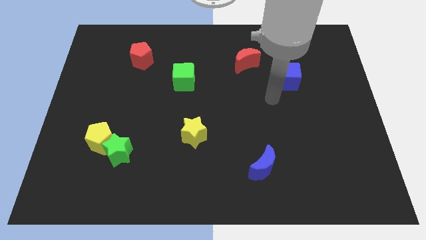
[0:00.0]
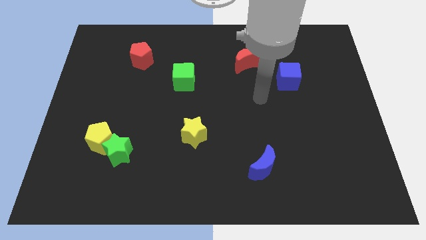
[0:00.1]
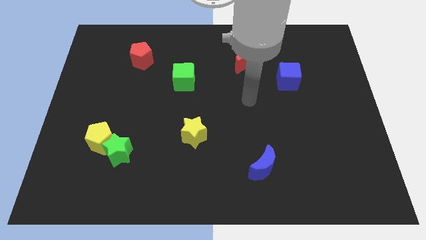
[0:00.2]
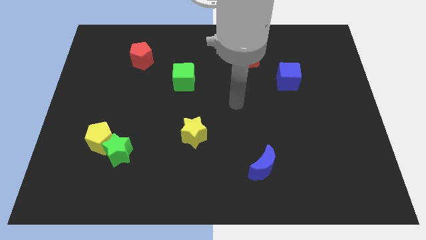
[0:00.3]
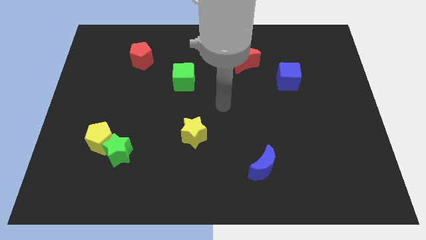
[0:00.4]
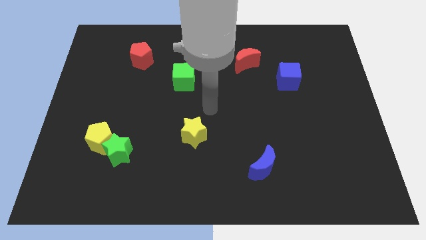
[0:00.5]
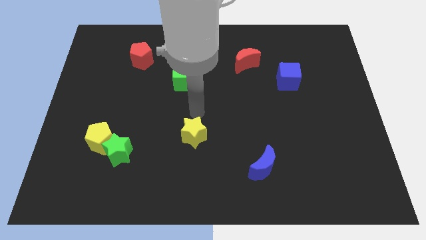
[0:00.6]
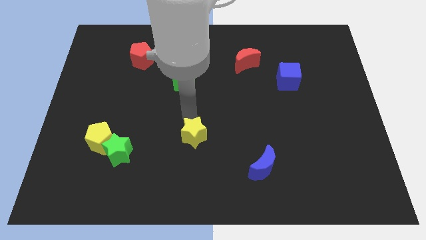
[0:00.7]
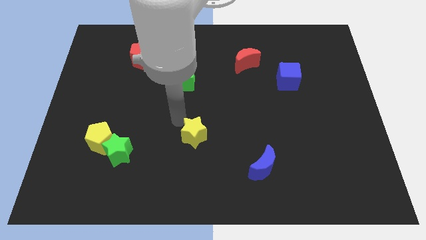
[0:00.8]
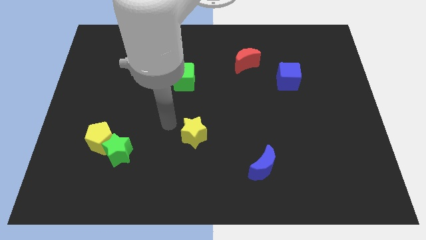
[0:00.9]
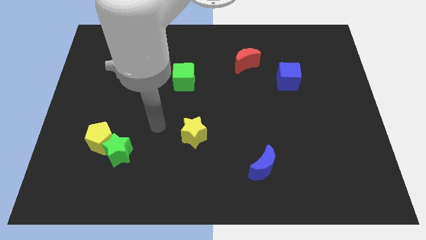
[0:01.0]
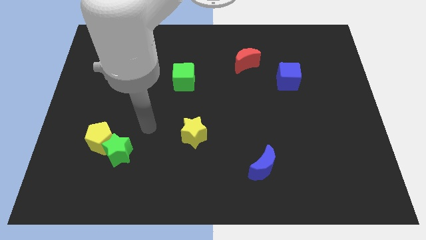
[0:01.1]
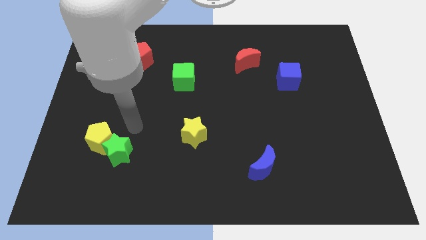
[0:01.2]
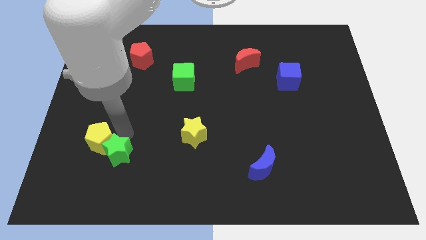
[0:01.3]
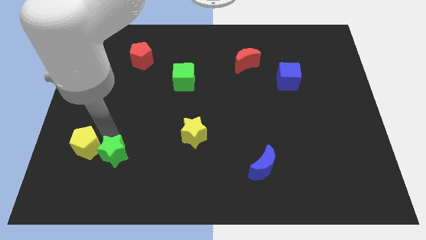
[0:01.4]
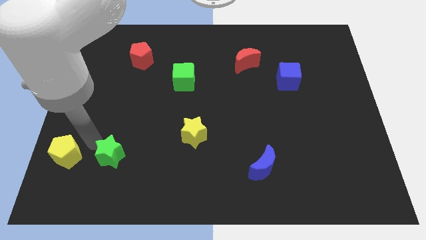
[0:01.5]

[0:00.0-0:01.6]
pull the green star apart from the yellow pentagon

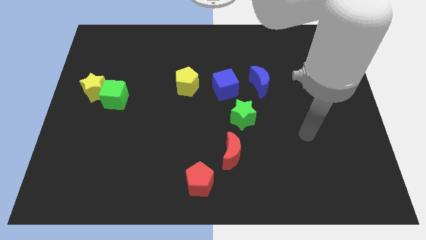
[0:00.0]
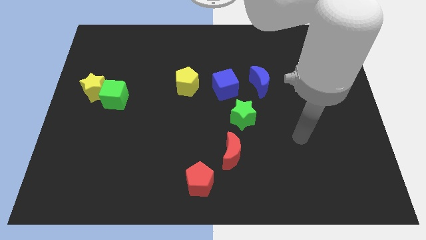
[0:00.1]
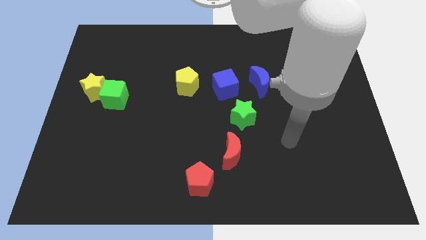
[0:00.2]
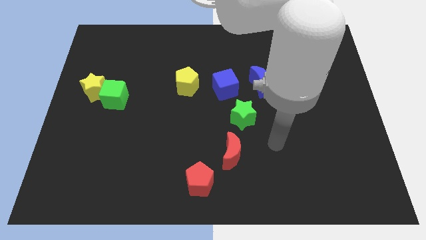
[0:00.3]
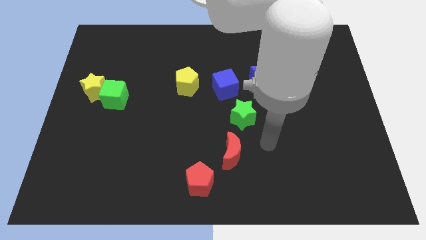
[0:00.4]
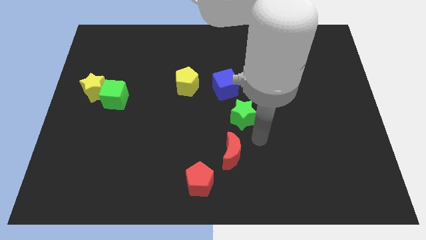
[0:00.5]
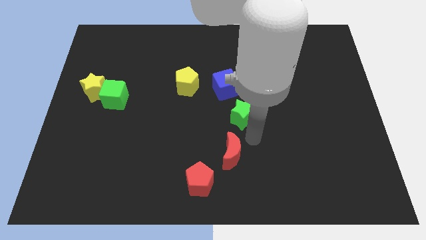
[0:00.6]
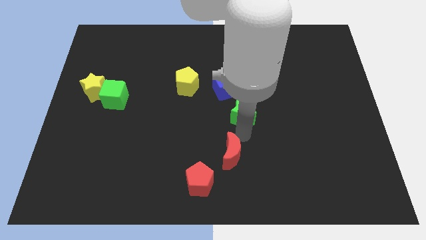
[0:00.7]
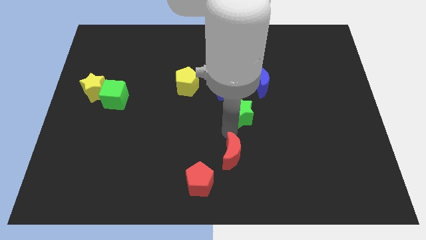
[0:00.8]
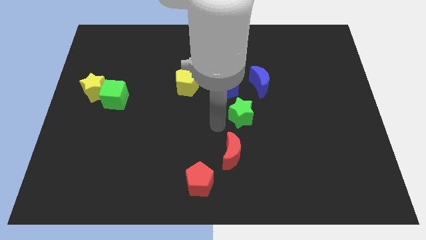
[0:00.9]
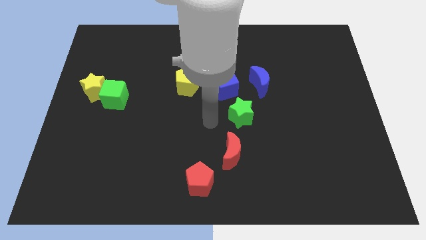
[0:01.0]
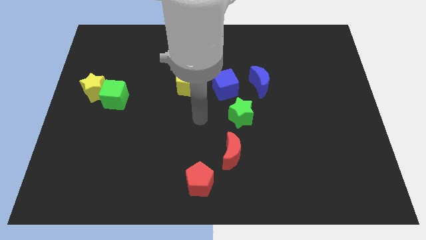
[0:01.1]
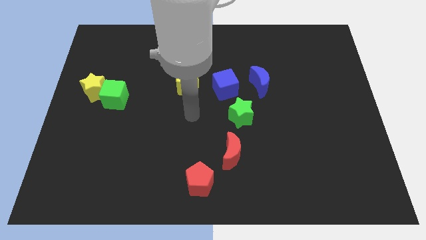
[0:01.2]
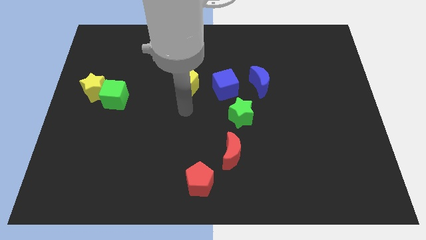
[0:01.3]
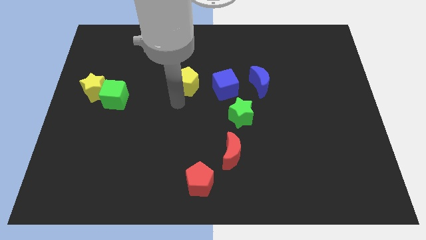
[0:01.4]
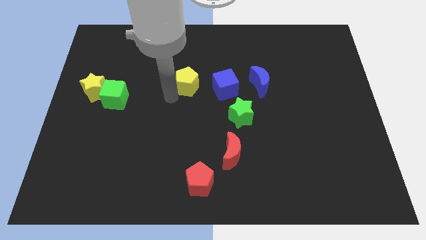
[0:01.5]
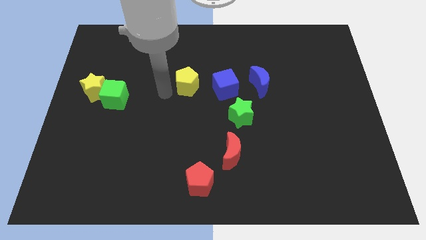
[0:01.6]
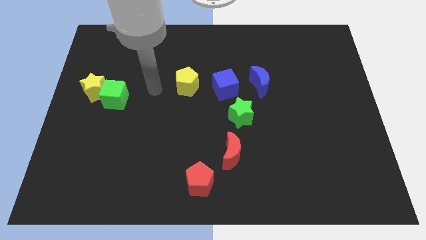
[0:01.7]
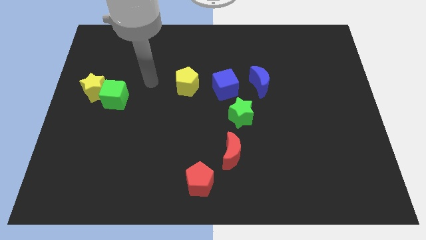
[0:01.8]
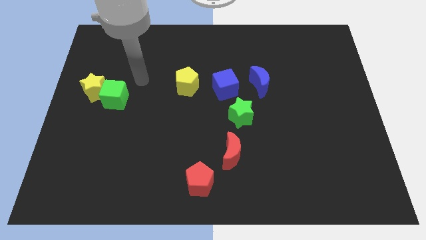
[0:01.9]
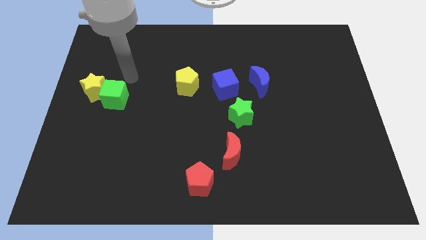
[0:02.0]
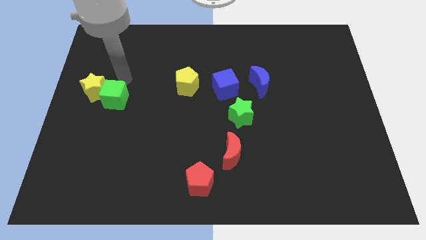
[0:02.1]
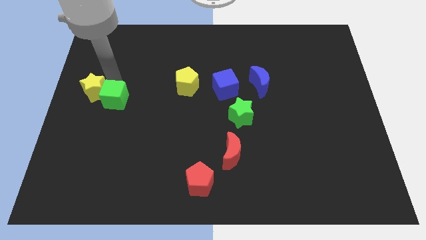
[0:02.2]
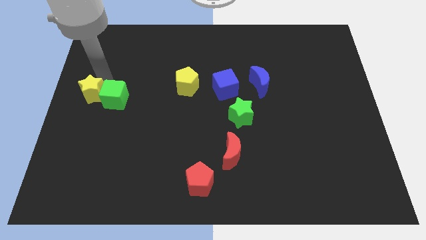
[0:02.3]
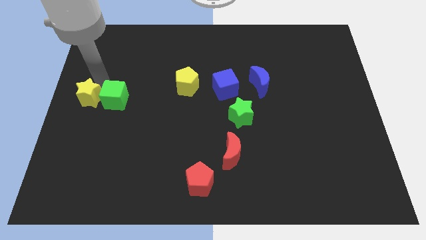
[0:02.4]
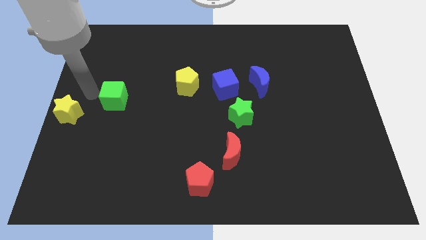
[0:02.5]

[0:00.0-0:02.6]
move the green cube away from the yellow star

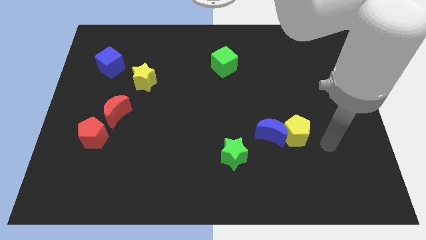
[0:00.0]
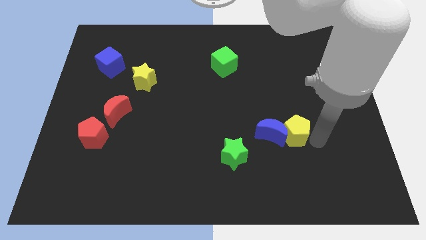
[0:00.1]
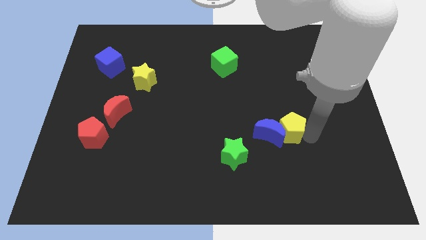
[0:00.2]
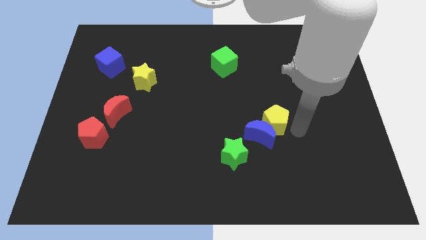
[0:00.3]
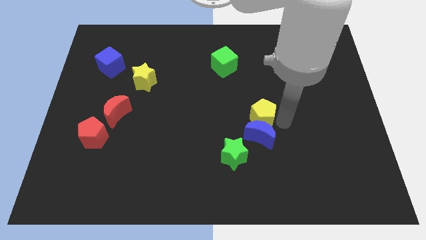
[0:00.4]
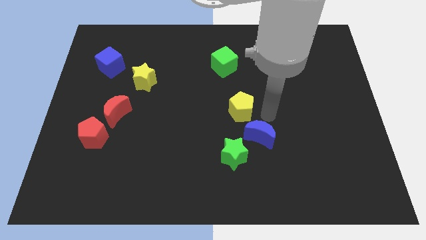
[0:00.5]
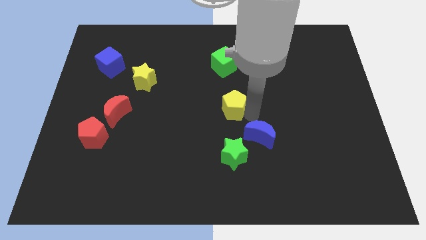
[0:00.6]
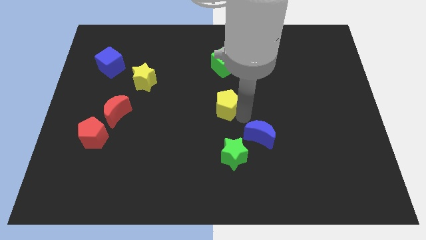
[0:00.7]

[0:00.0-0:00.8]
pull the blue moon apart from the yellow pentagon

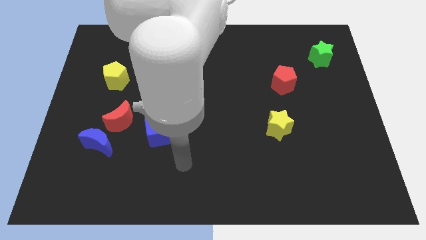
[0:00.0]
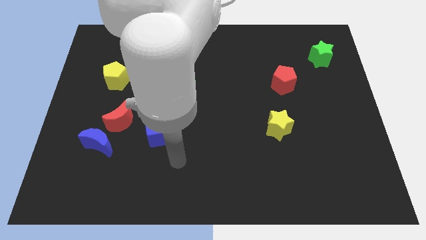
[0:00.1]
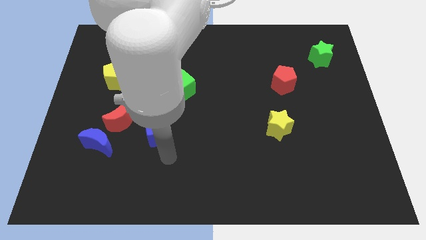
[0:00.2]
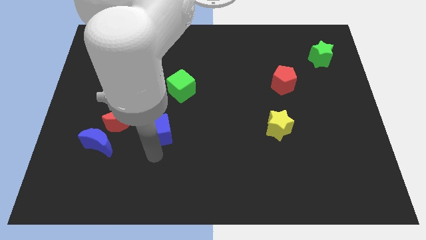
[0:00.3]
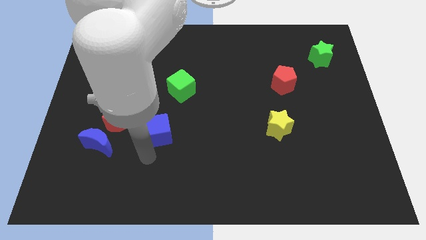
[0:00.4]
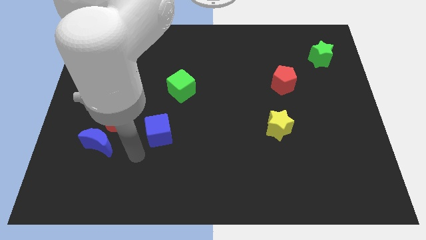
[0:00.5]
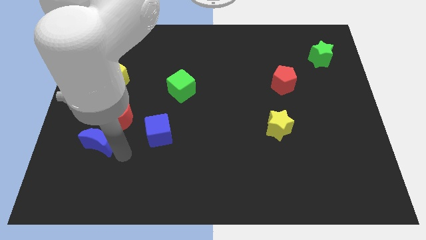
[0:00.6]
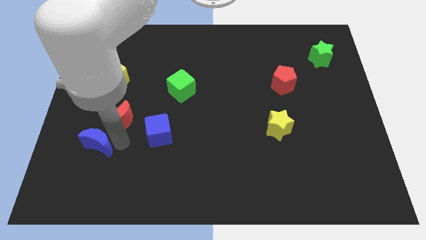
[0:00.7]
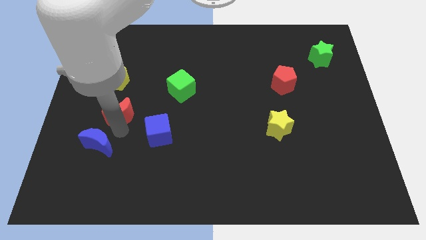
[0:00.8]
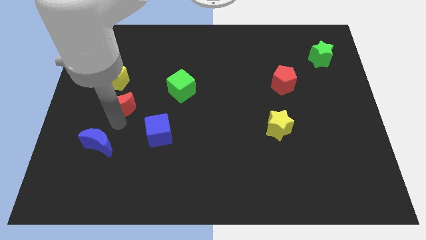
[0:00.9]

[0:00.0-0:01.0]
pull the blue moon apart from the red moon

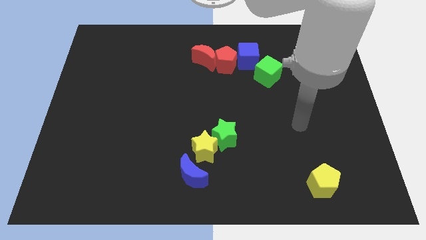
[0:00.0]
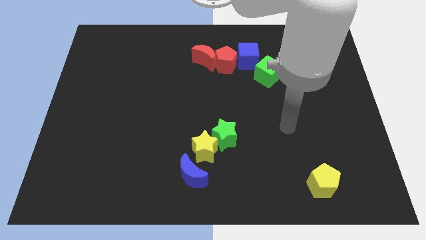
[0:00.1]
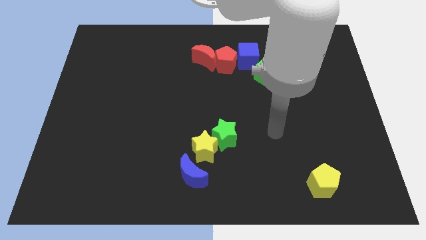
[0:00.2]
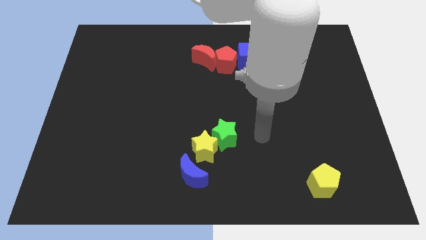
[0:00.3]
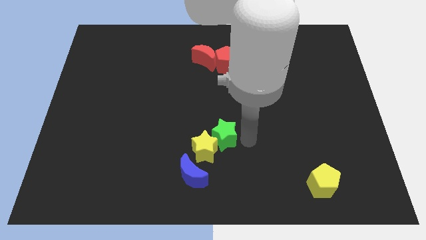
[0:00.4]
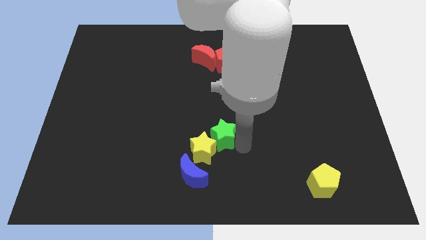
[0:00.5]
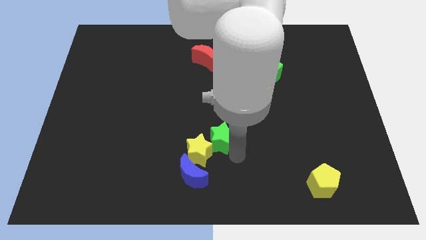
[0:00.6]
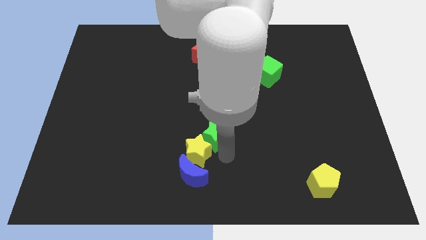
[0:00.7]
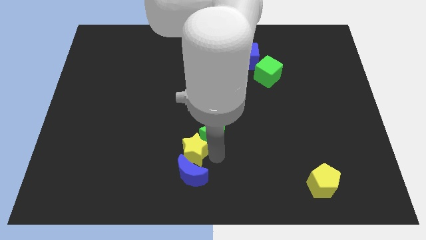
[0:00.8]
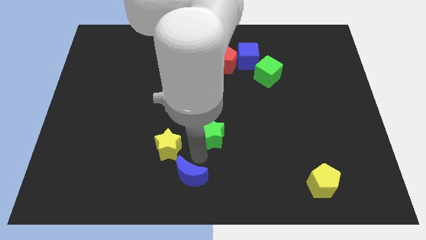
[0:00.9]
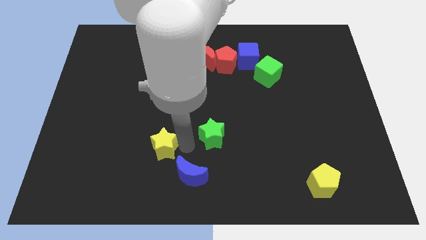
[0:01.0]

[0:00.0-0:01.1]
separate the green star from the yellow star

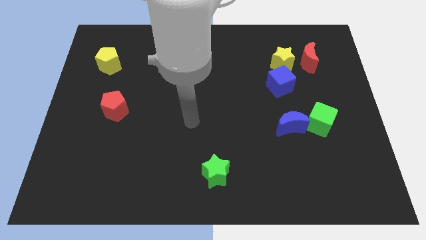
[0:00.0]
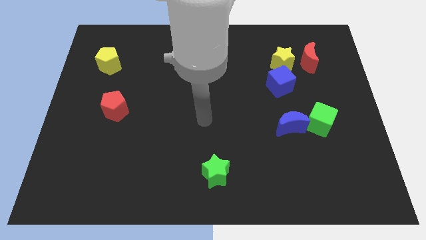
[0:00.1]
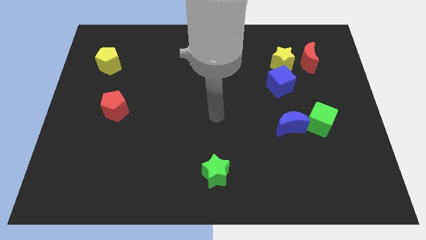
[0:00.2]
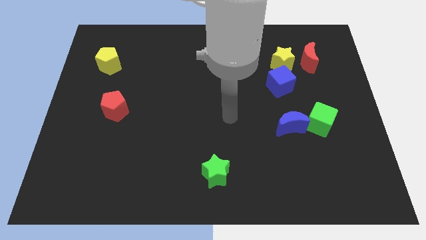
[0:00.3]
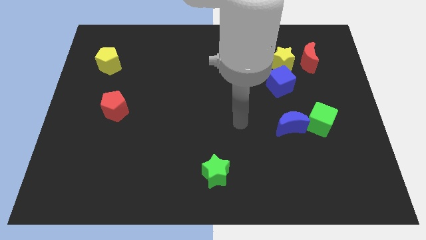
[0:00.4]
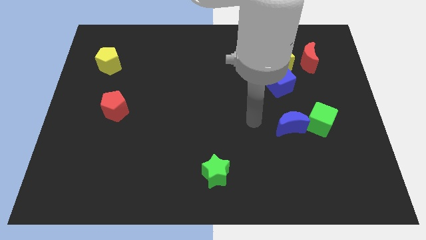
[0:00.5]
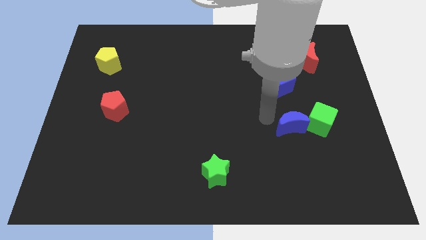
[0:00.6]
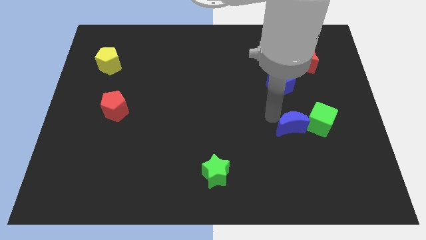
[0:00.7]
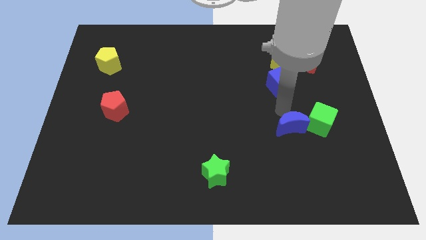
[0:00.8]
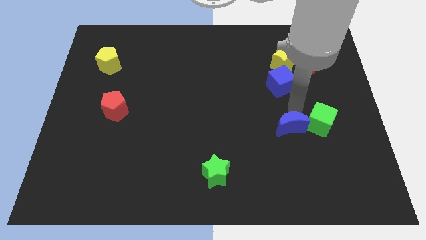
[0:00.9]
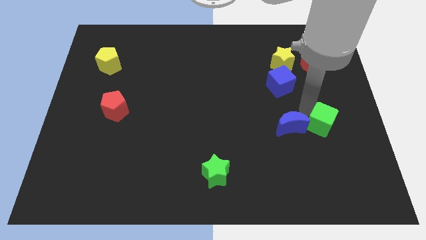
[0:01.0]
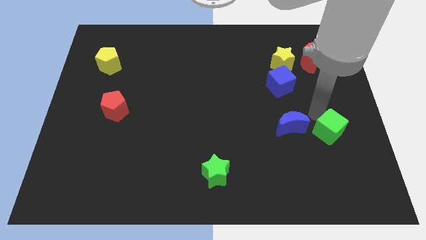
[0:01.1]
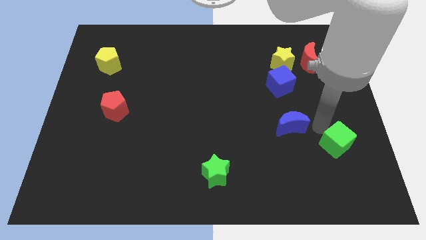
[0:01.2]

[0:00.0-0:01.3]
separate the blue moon from the green cube

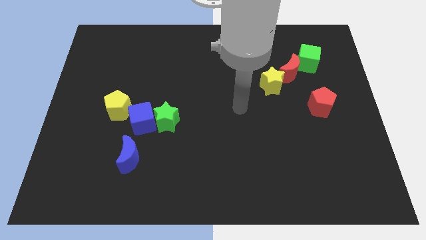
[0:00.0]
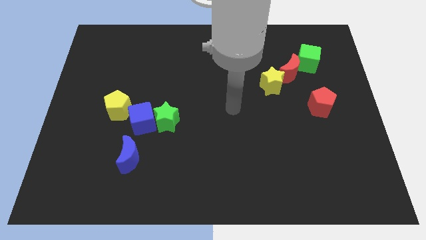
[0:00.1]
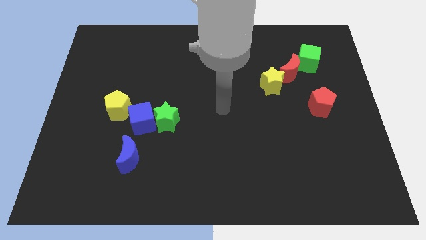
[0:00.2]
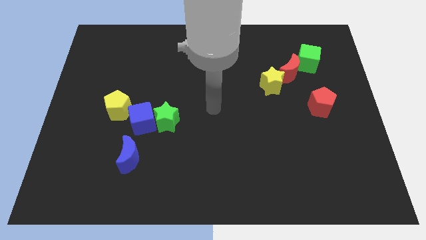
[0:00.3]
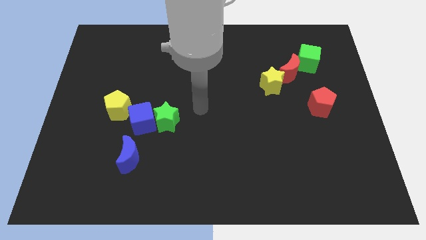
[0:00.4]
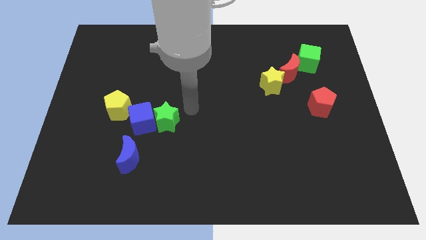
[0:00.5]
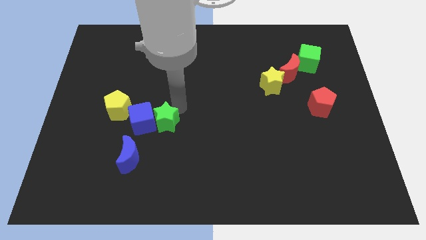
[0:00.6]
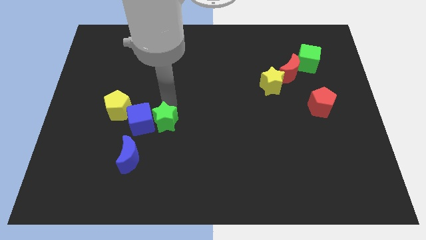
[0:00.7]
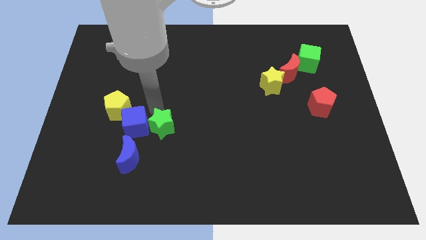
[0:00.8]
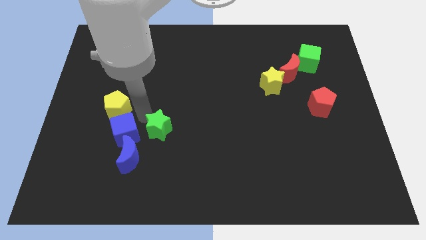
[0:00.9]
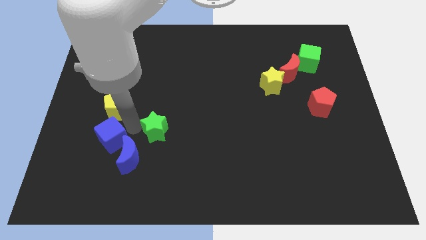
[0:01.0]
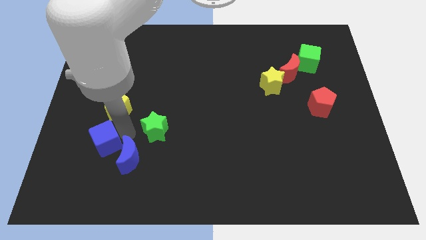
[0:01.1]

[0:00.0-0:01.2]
pull the green star apart from the blue cube
